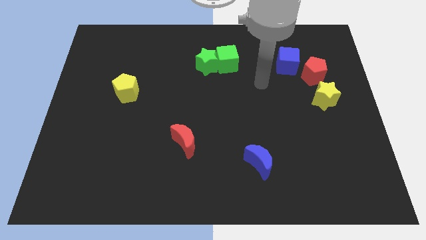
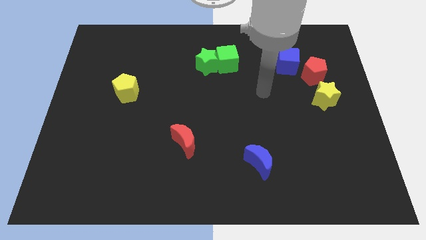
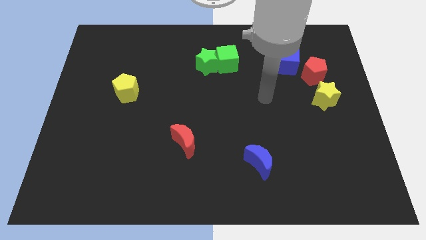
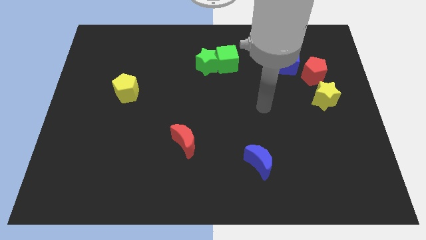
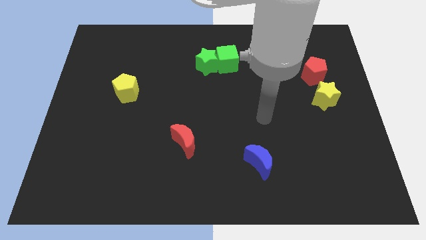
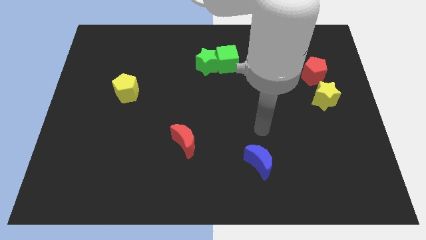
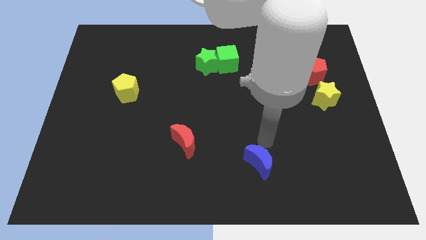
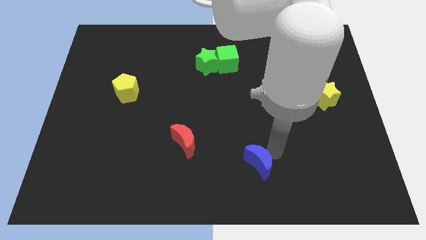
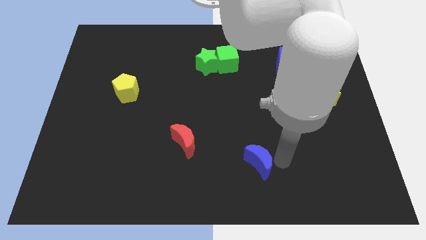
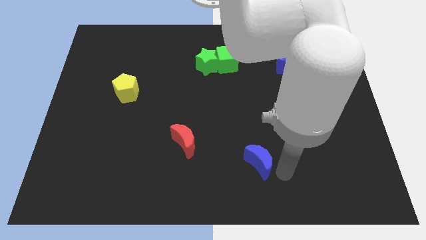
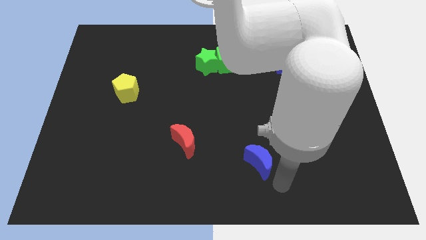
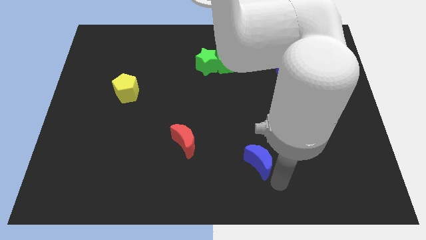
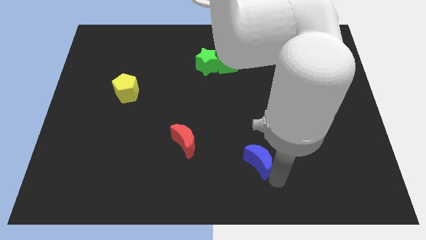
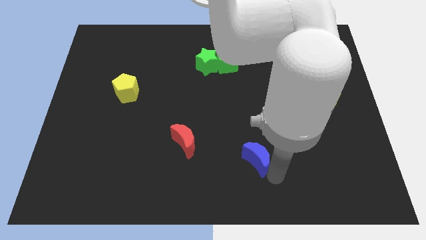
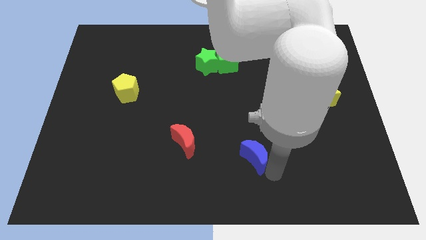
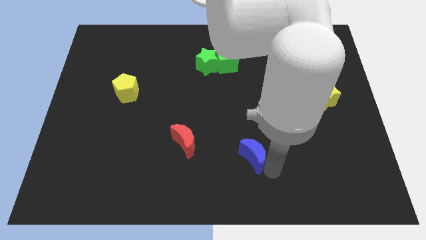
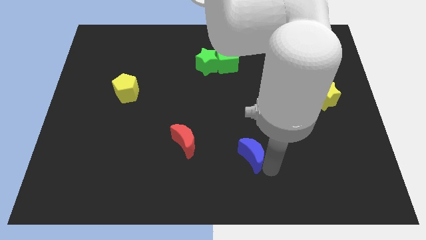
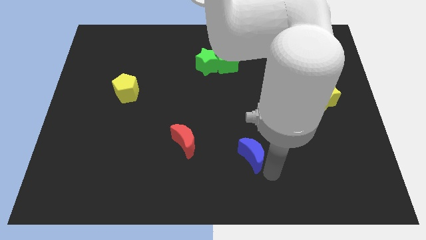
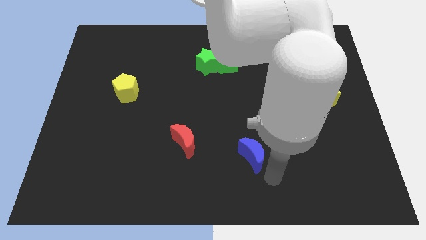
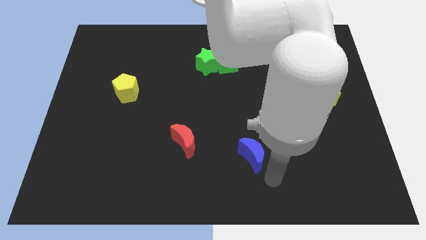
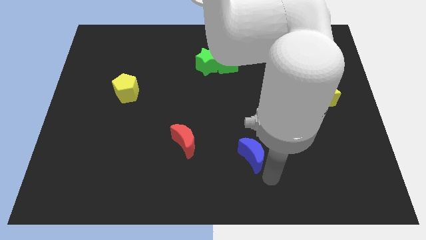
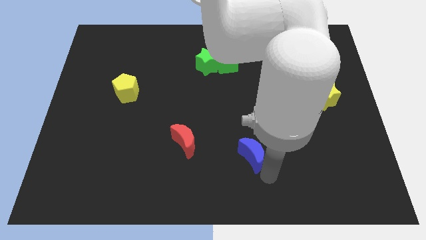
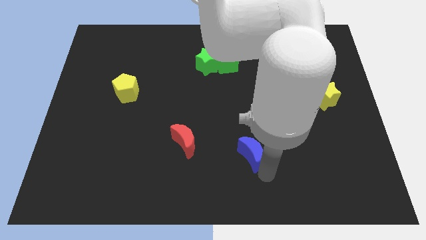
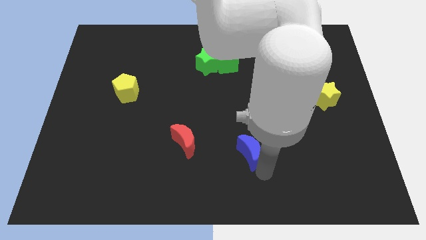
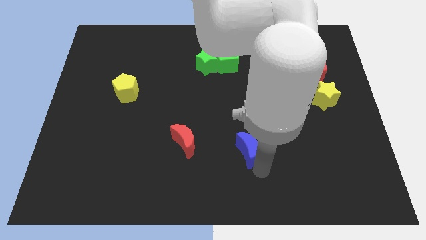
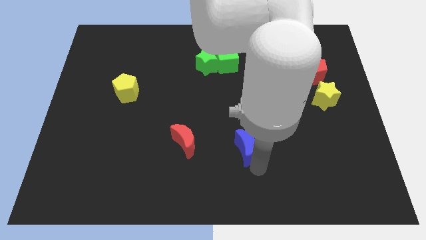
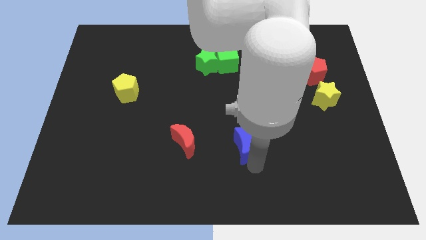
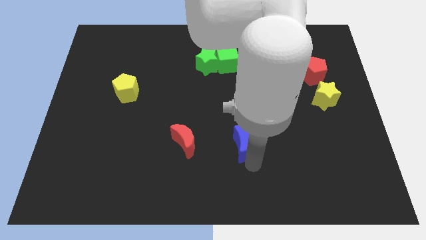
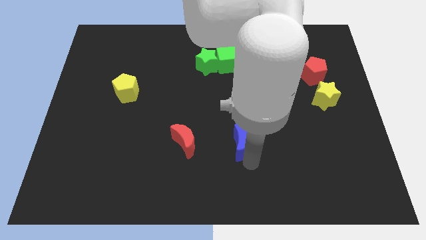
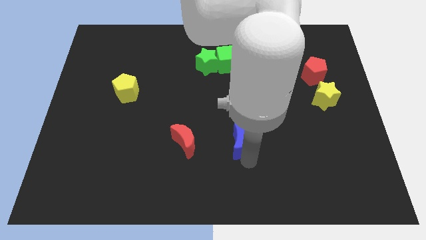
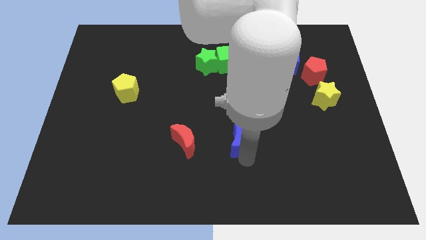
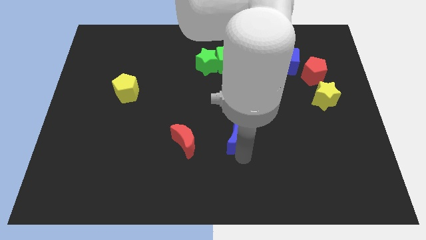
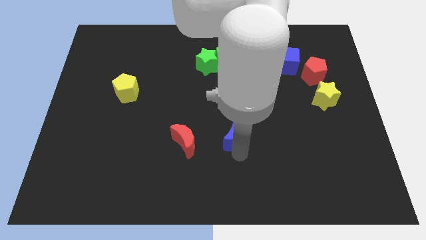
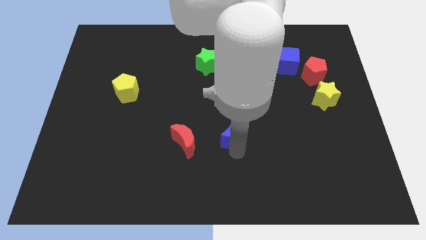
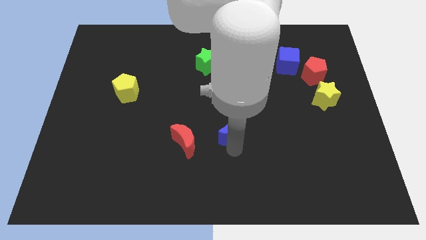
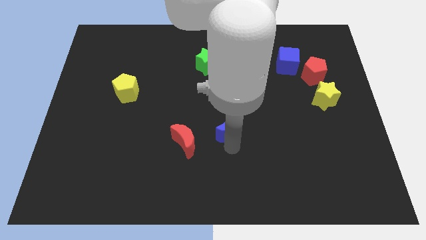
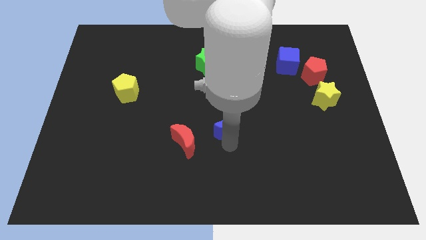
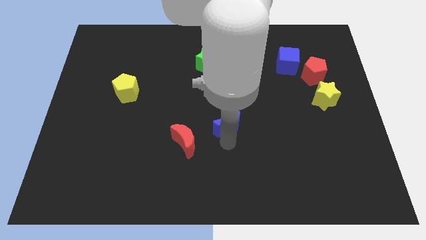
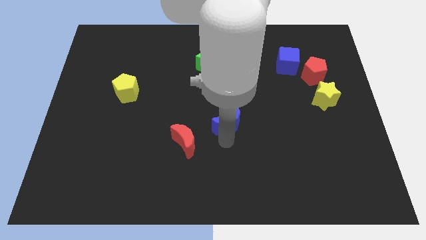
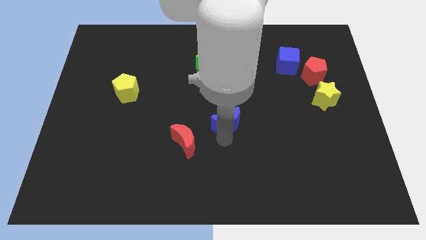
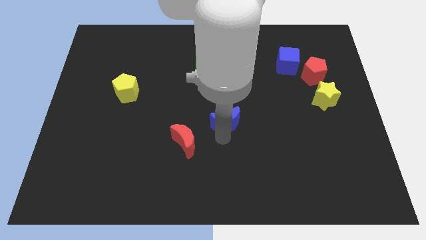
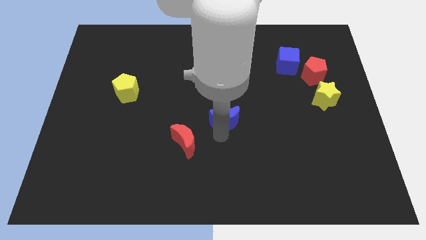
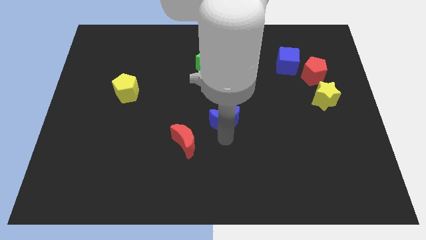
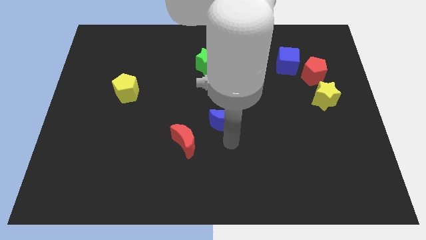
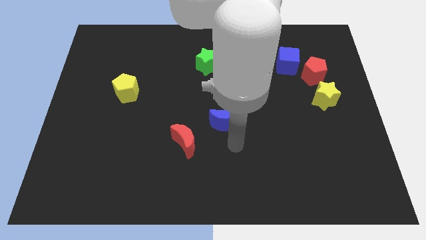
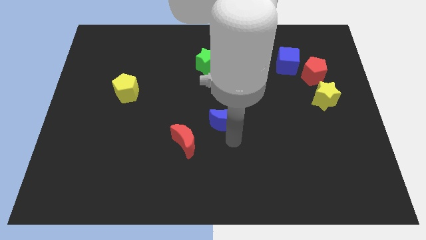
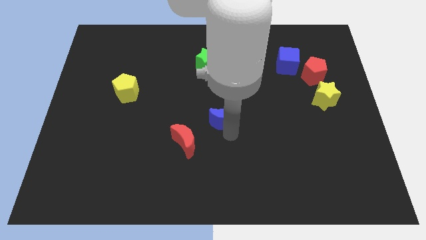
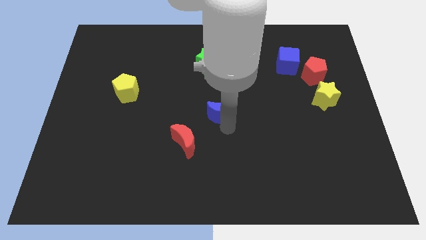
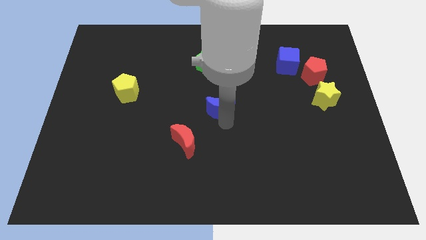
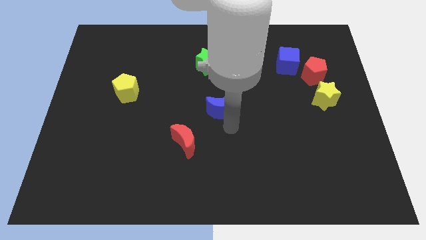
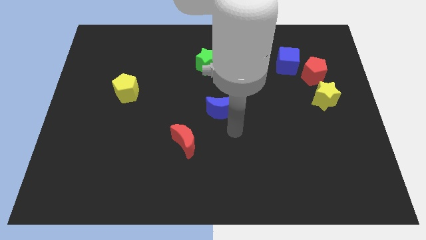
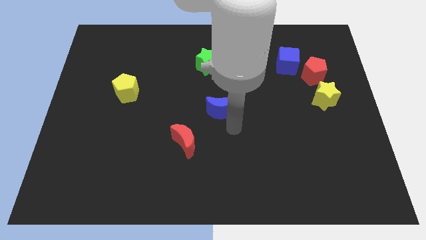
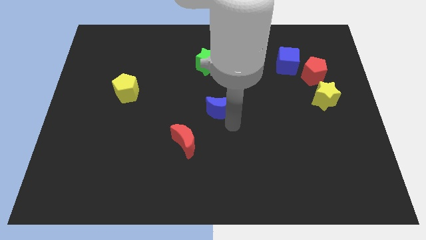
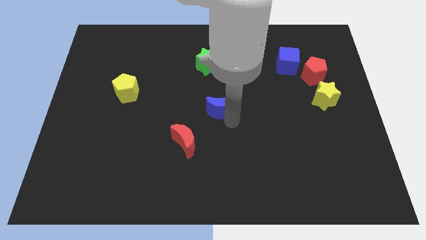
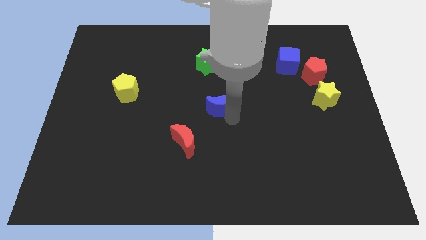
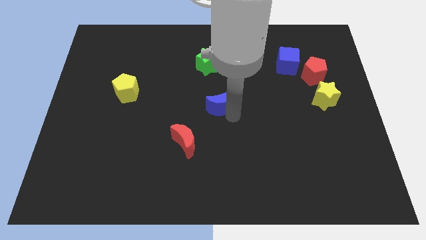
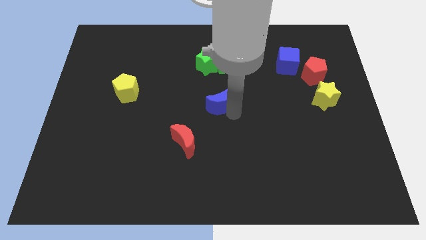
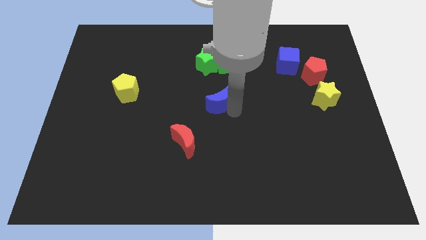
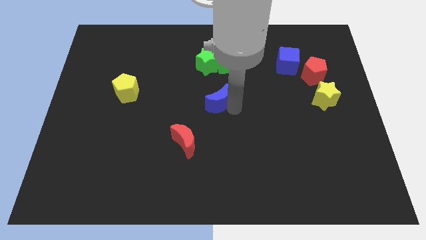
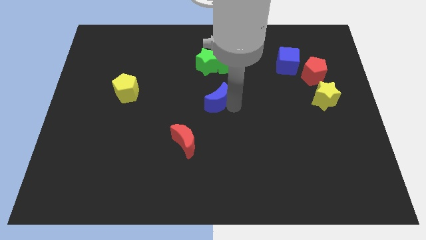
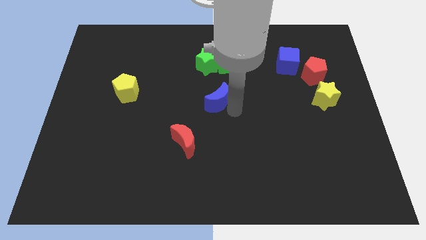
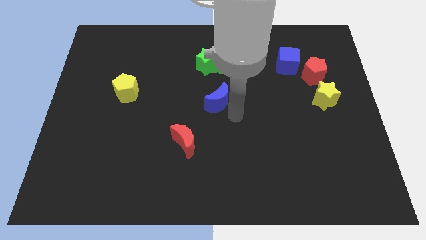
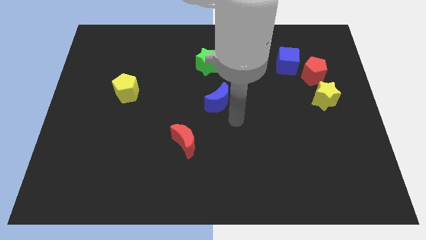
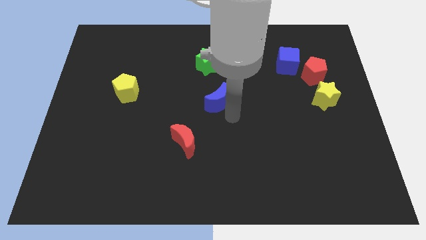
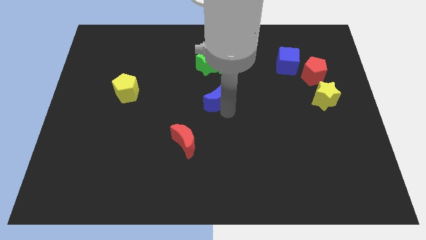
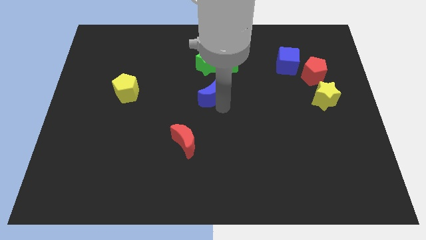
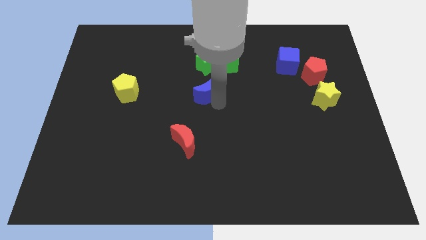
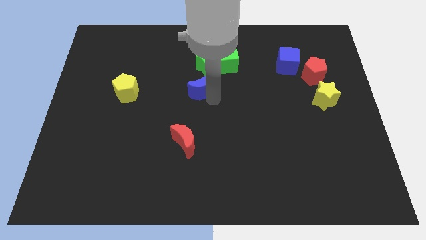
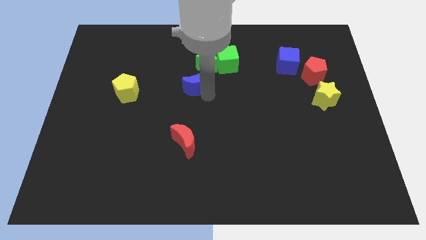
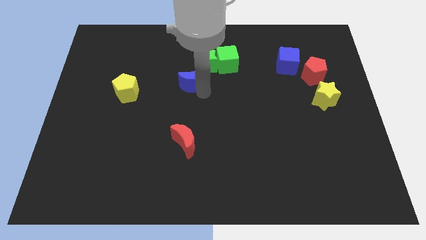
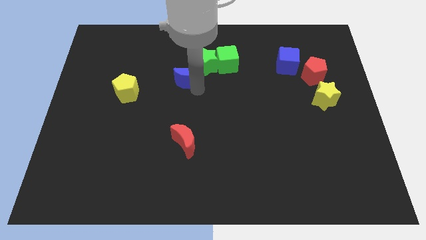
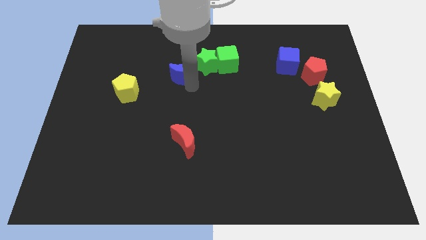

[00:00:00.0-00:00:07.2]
put the blue moon left of the green cube

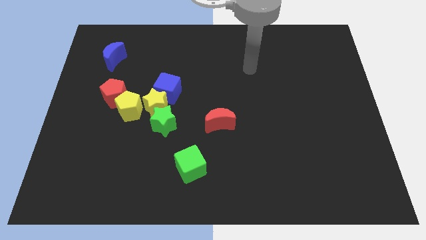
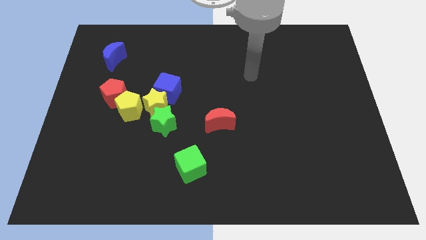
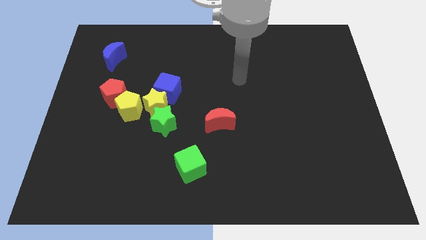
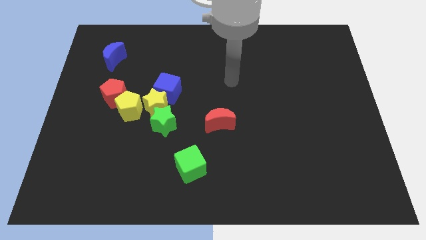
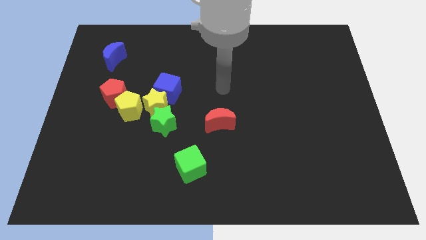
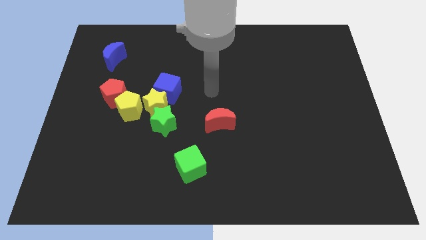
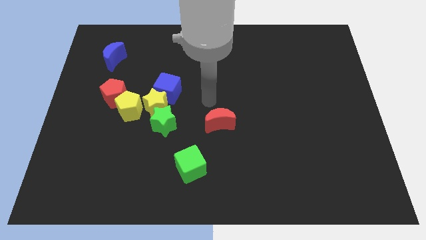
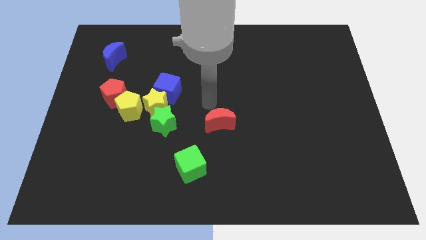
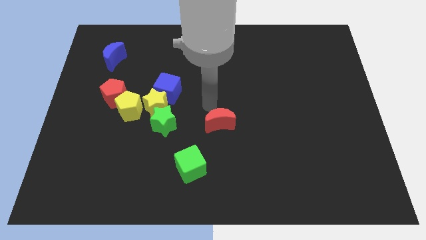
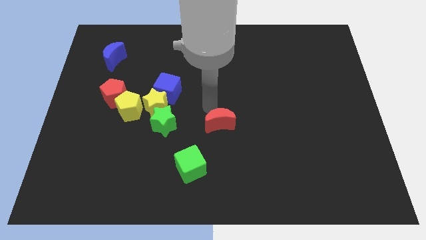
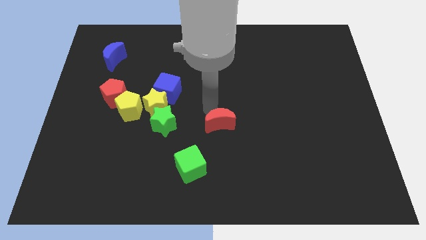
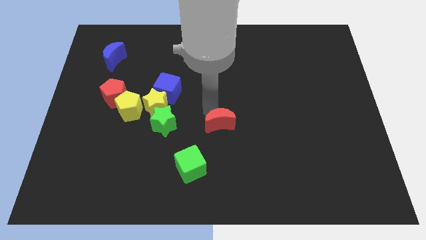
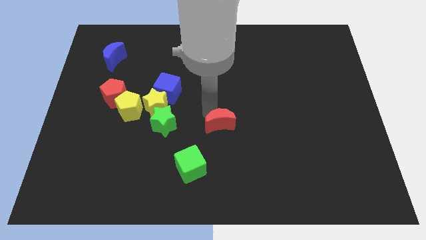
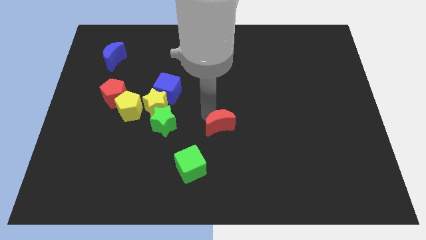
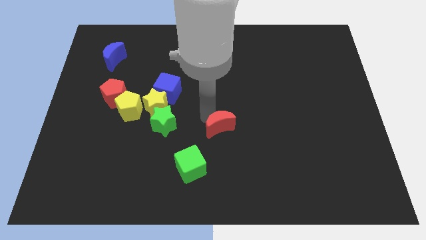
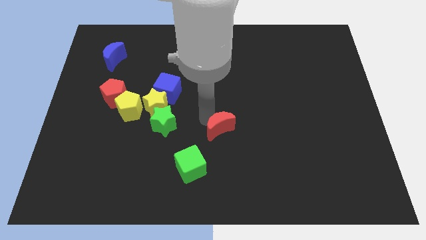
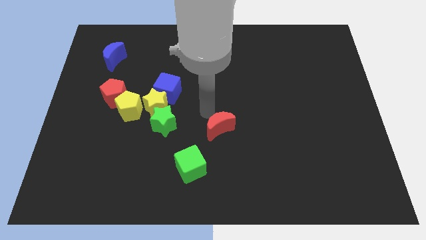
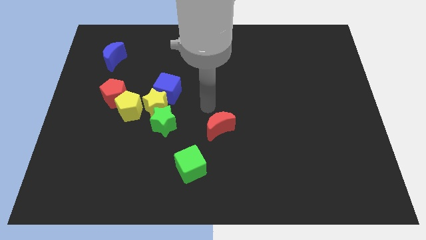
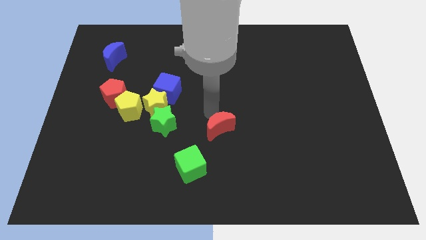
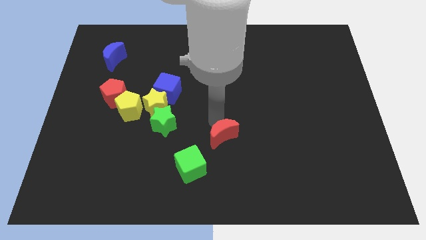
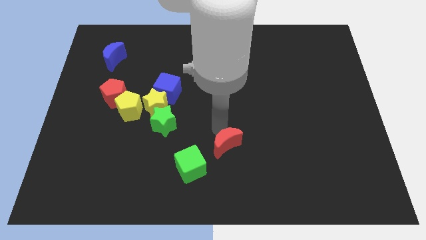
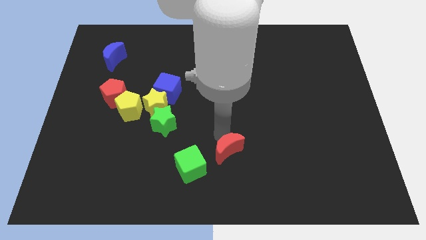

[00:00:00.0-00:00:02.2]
move the red moon right of the green cube
